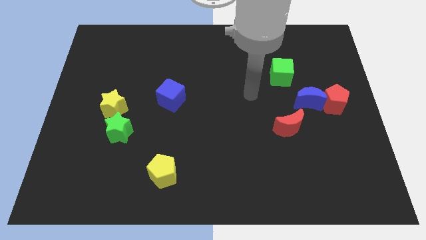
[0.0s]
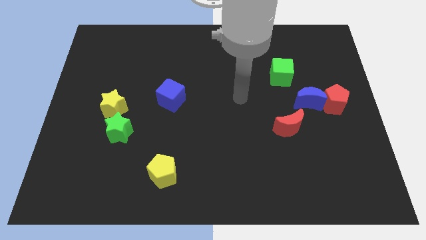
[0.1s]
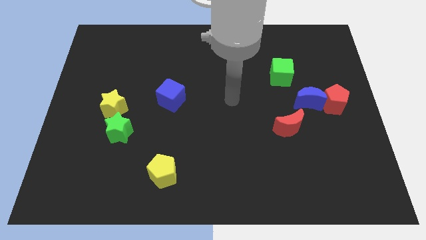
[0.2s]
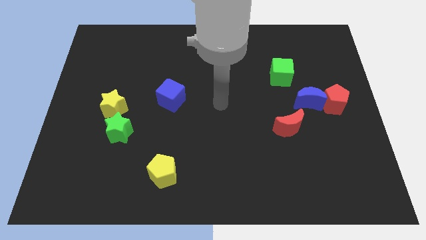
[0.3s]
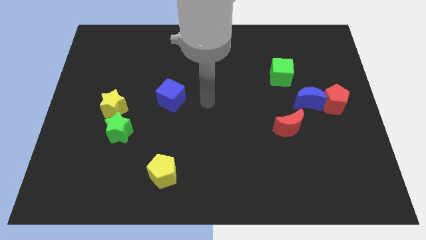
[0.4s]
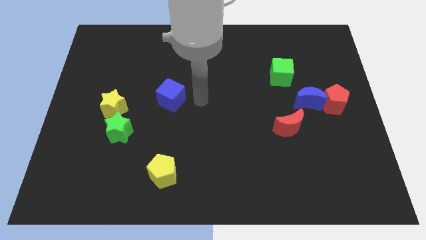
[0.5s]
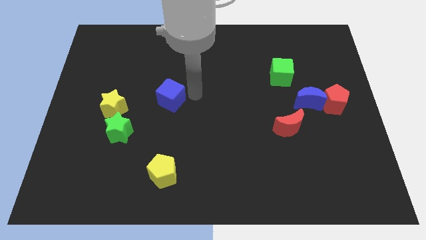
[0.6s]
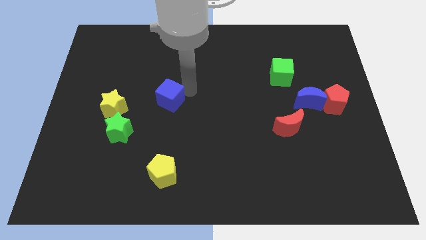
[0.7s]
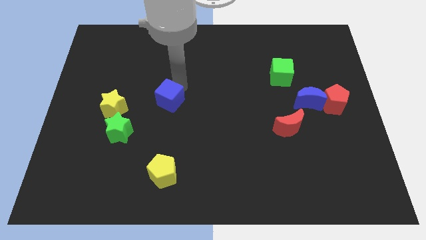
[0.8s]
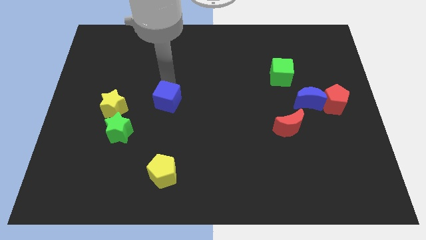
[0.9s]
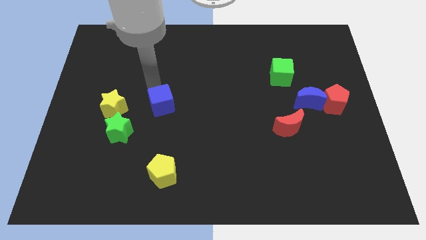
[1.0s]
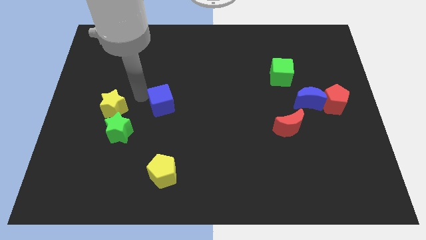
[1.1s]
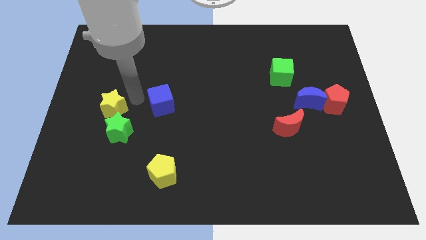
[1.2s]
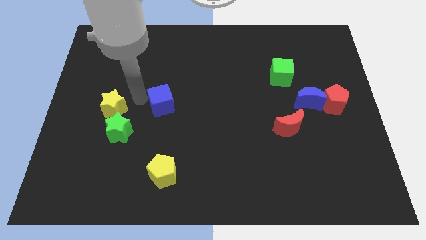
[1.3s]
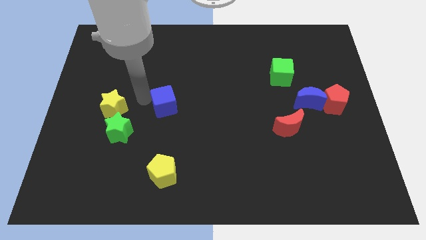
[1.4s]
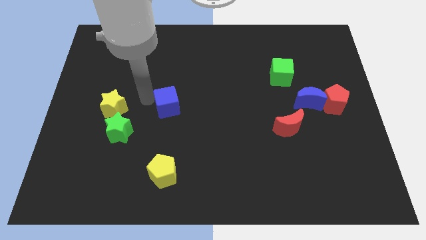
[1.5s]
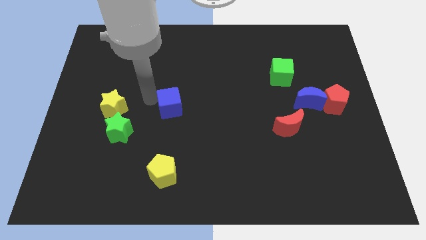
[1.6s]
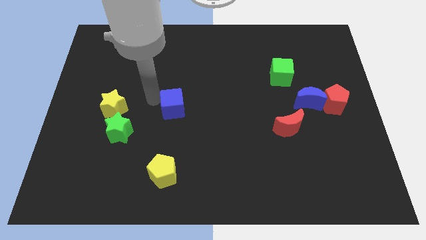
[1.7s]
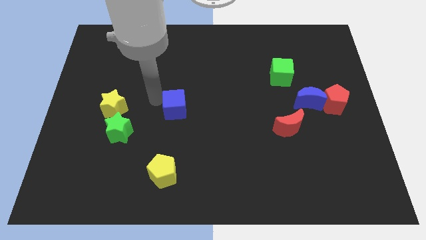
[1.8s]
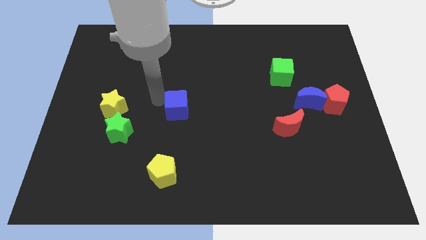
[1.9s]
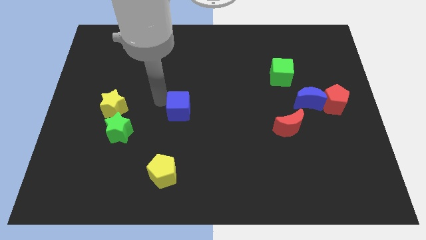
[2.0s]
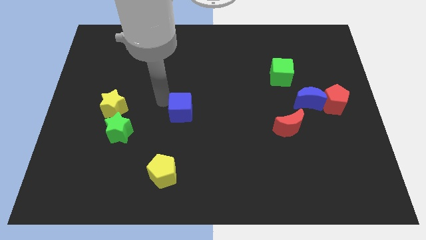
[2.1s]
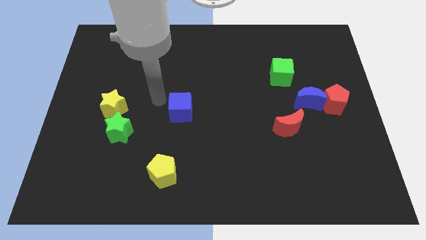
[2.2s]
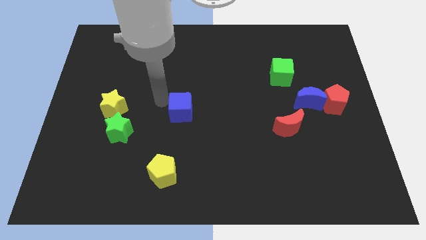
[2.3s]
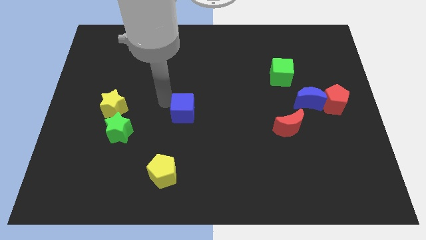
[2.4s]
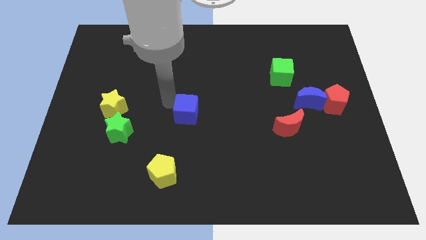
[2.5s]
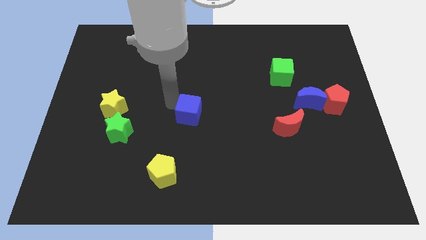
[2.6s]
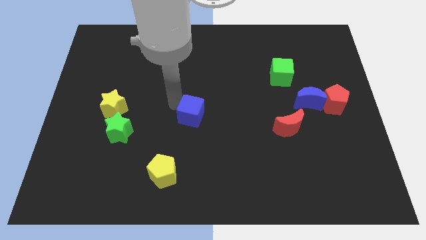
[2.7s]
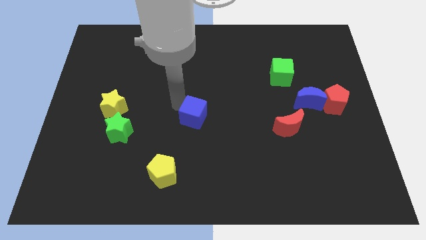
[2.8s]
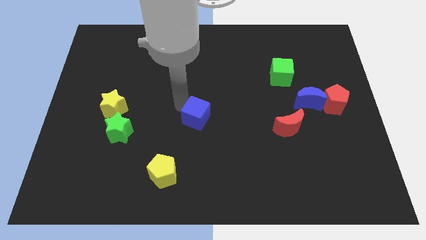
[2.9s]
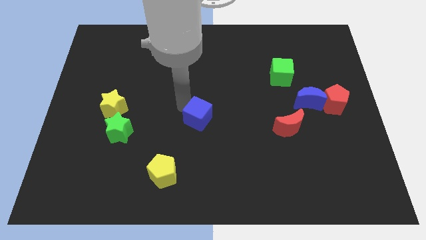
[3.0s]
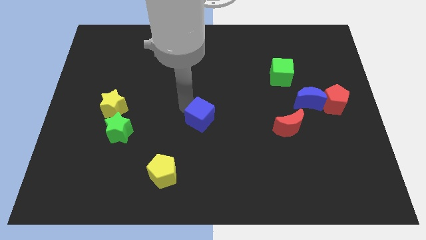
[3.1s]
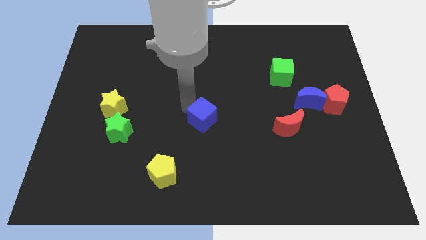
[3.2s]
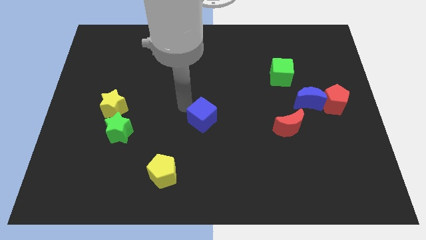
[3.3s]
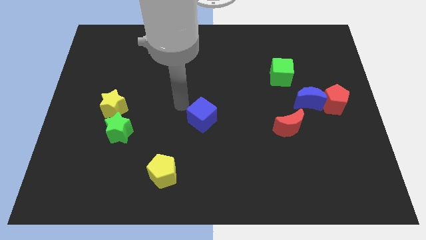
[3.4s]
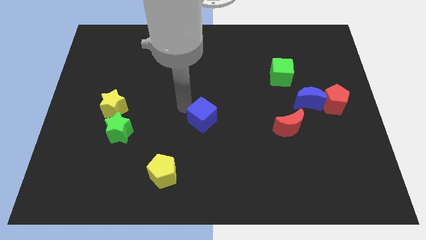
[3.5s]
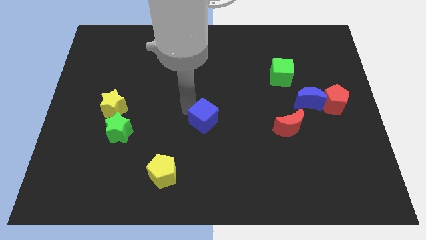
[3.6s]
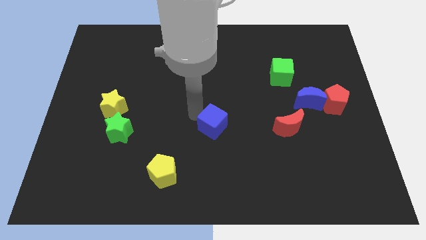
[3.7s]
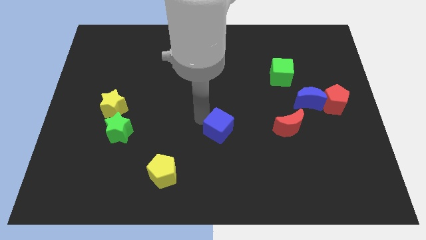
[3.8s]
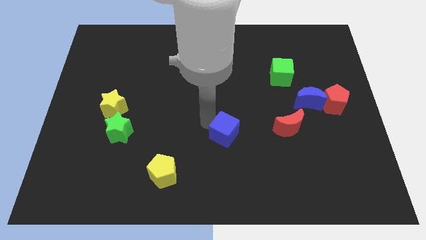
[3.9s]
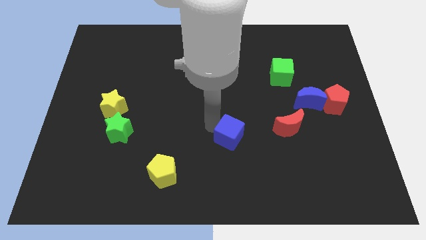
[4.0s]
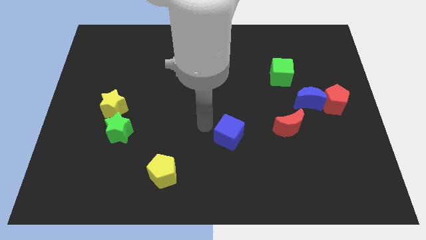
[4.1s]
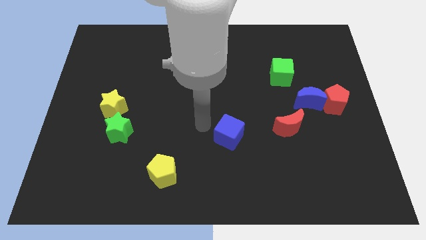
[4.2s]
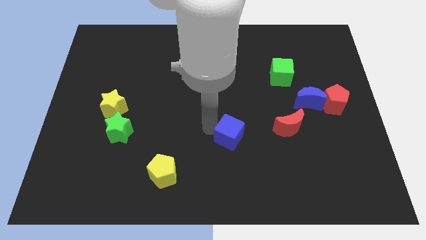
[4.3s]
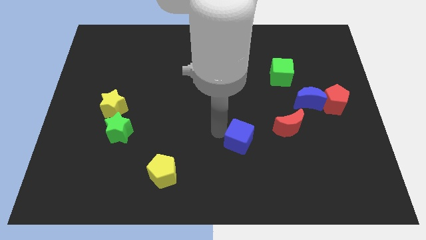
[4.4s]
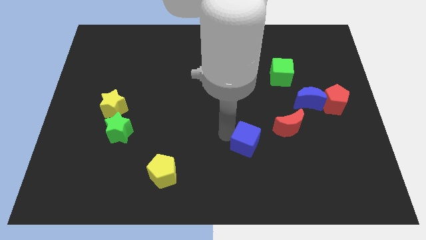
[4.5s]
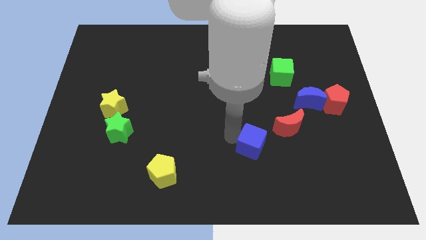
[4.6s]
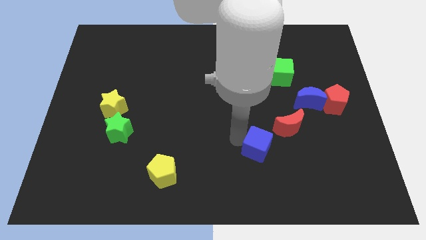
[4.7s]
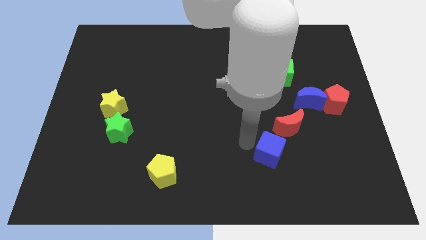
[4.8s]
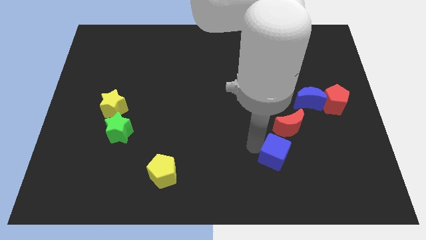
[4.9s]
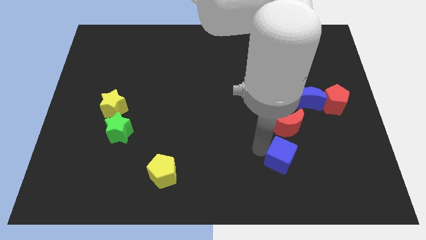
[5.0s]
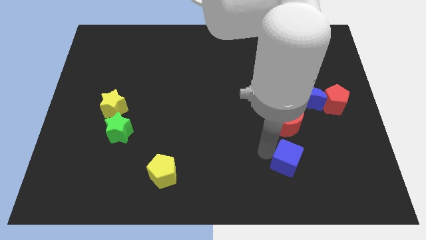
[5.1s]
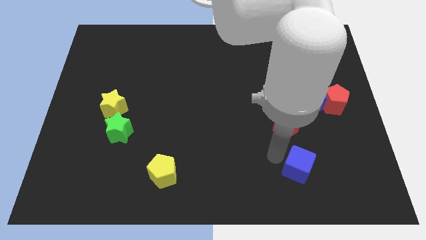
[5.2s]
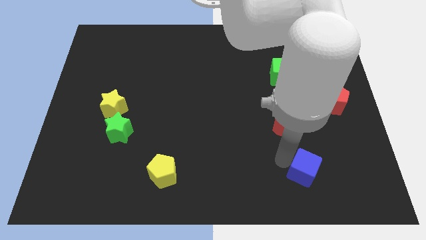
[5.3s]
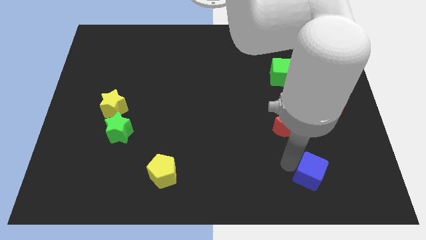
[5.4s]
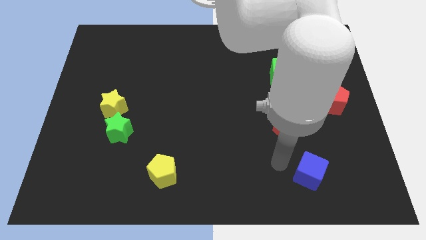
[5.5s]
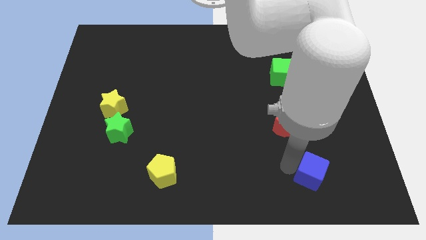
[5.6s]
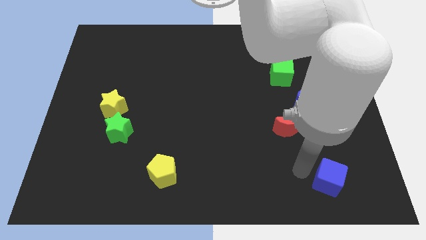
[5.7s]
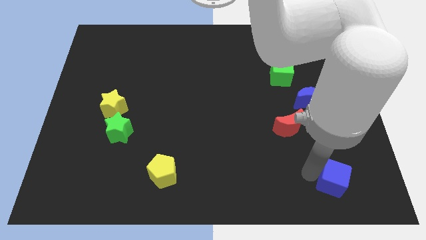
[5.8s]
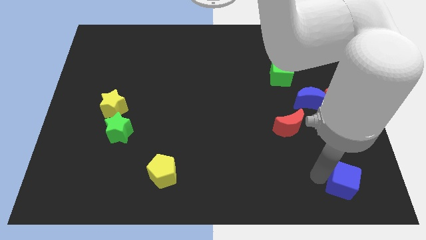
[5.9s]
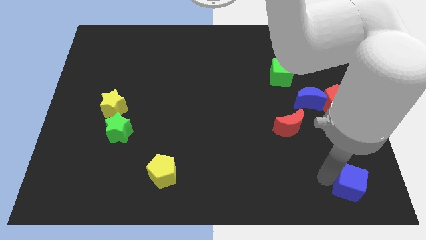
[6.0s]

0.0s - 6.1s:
slide the blue cube to the lower right corner

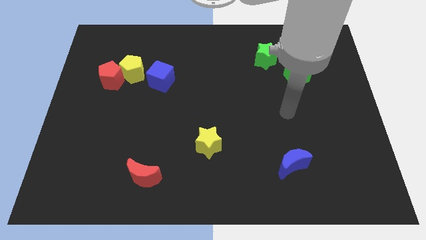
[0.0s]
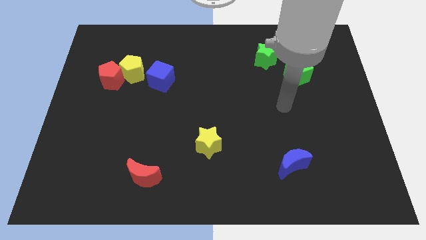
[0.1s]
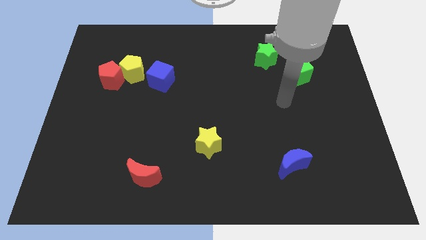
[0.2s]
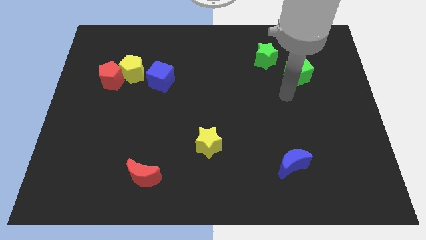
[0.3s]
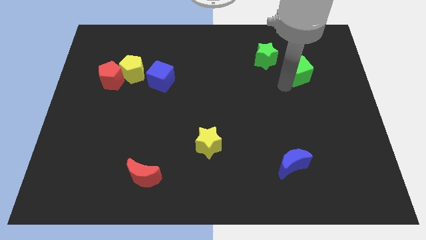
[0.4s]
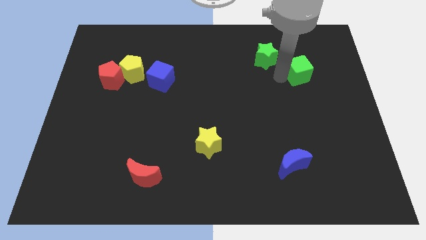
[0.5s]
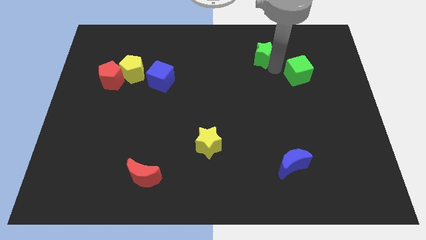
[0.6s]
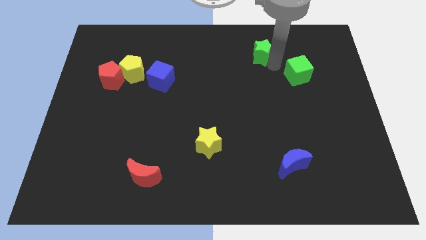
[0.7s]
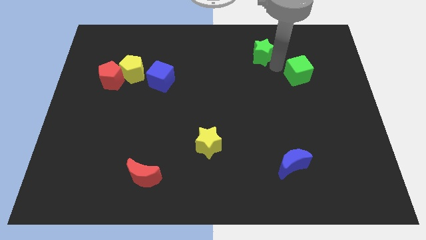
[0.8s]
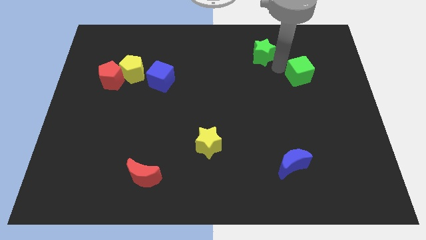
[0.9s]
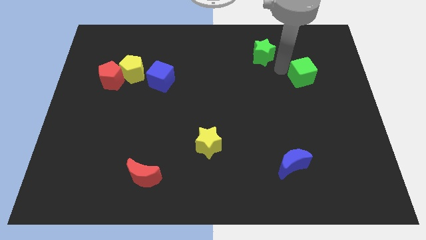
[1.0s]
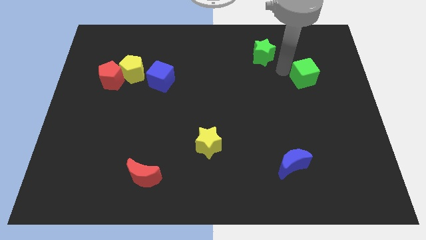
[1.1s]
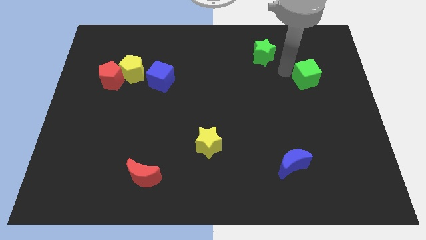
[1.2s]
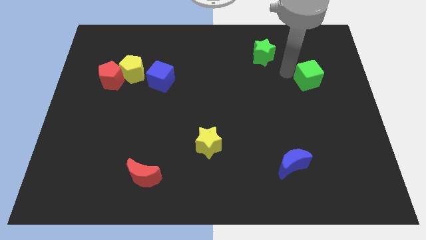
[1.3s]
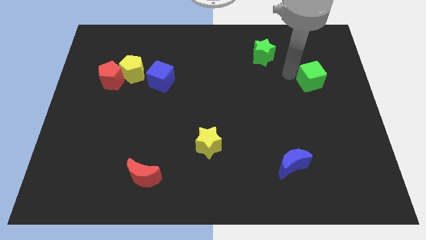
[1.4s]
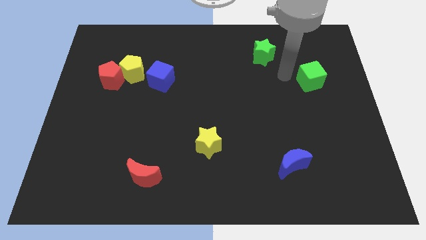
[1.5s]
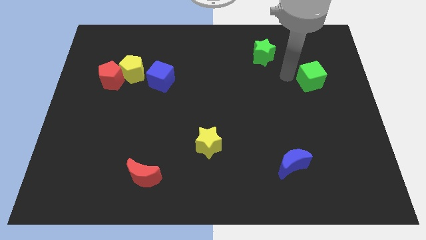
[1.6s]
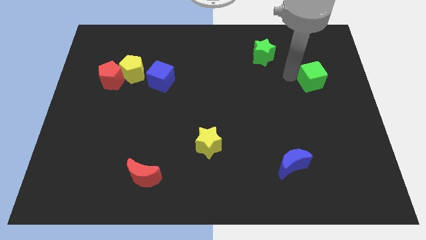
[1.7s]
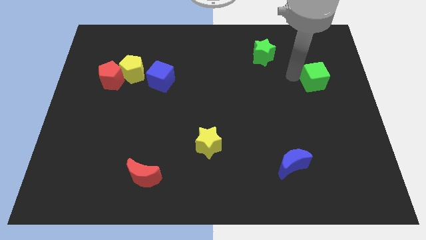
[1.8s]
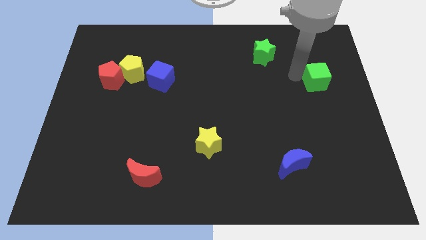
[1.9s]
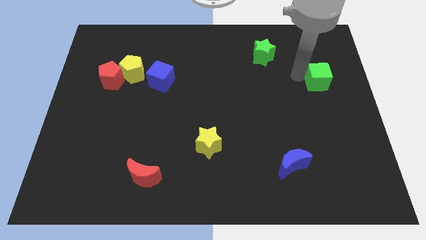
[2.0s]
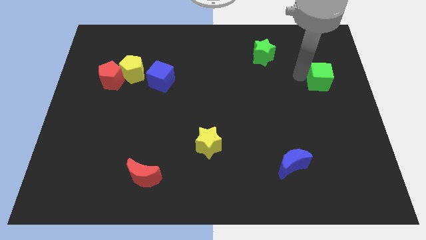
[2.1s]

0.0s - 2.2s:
put the green cube to the center right
